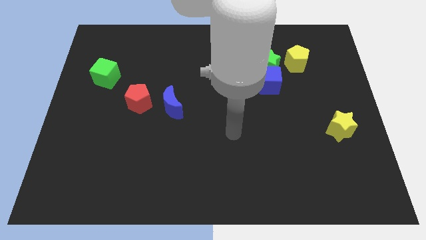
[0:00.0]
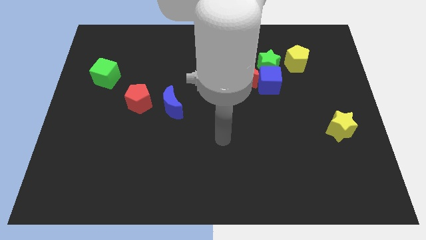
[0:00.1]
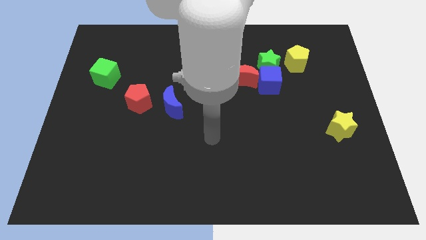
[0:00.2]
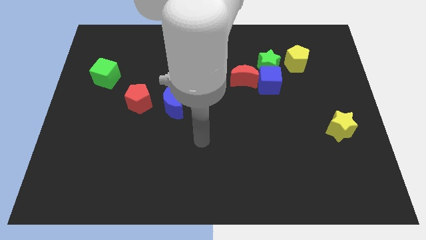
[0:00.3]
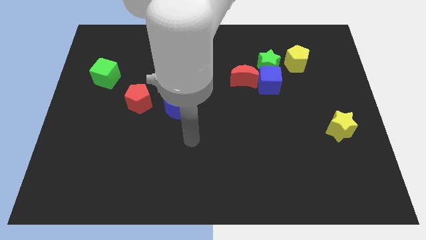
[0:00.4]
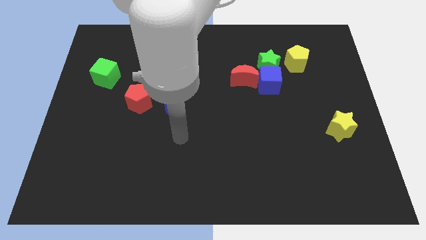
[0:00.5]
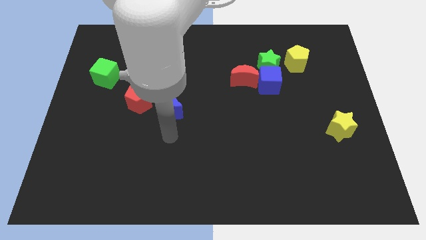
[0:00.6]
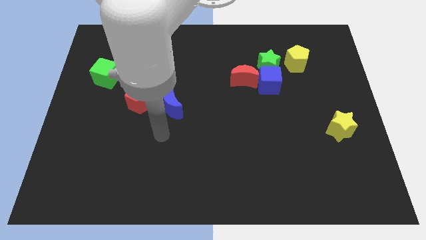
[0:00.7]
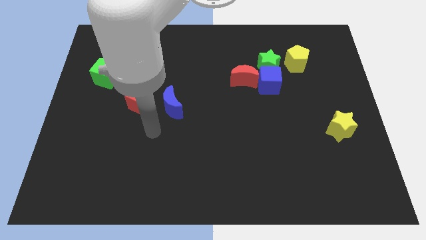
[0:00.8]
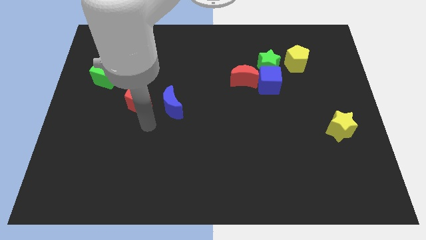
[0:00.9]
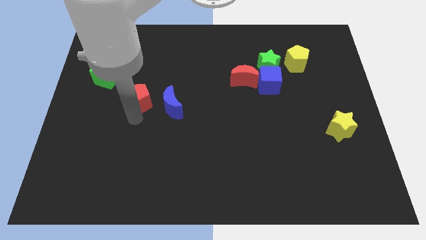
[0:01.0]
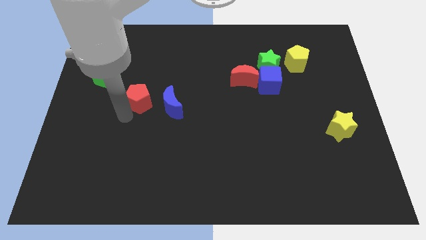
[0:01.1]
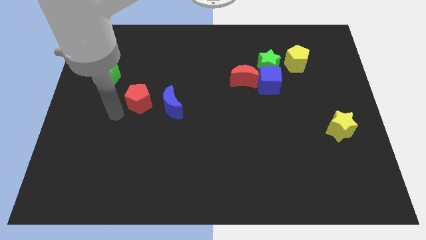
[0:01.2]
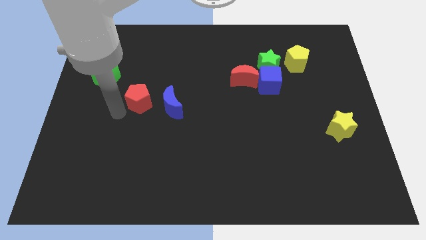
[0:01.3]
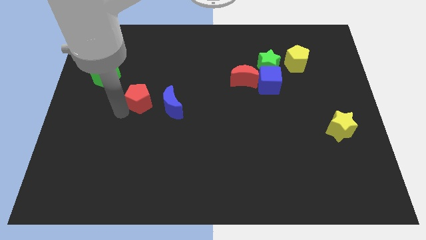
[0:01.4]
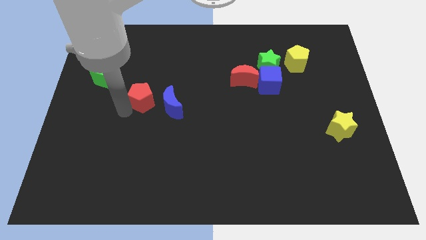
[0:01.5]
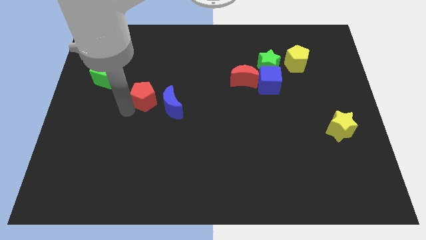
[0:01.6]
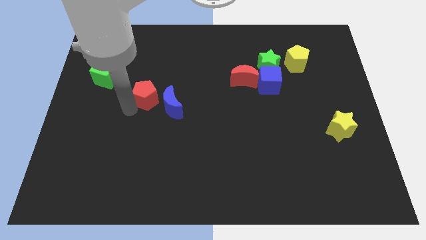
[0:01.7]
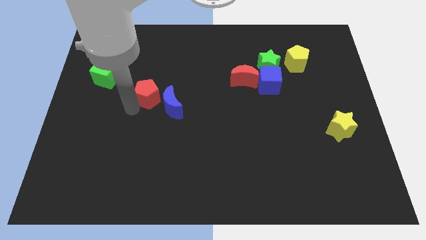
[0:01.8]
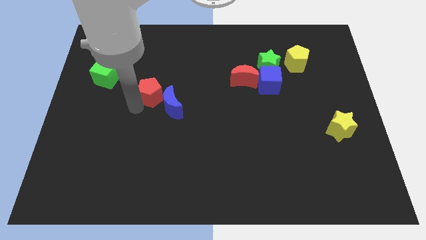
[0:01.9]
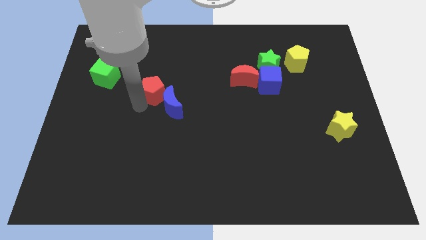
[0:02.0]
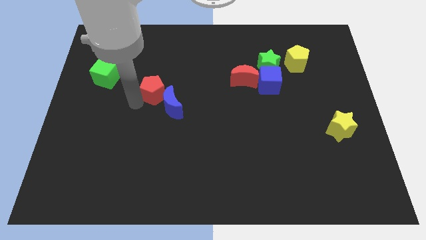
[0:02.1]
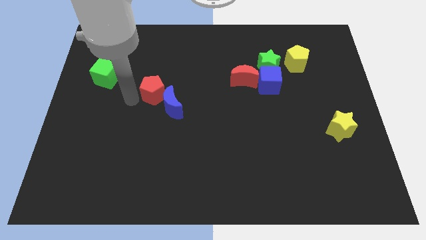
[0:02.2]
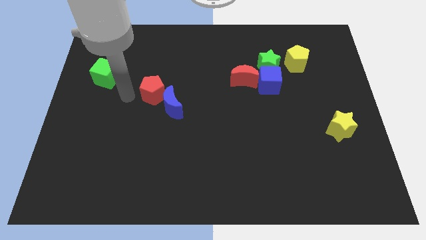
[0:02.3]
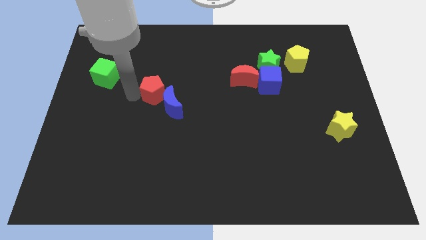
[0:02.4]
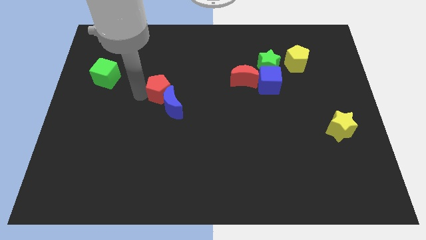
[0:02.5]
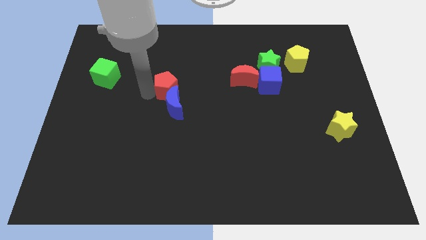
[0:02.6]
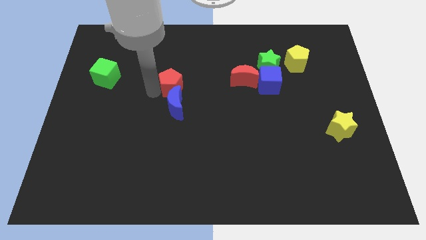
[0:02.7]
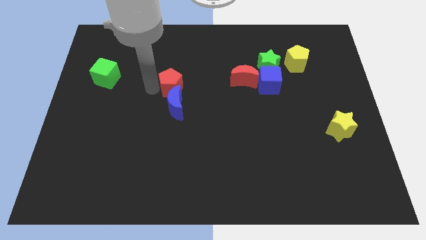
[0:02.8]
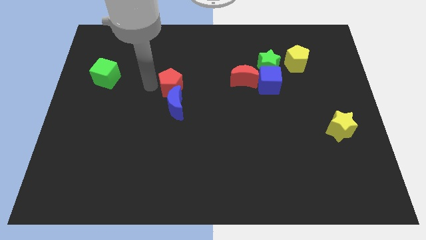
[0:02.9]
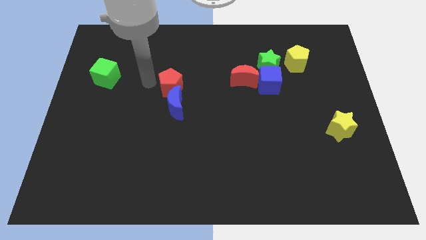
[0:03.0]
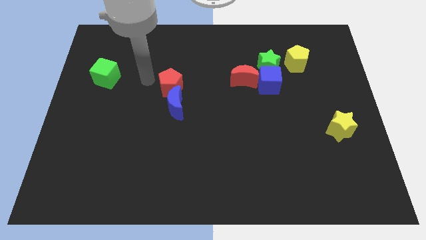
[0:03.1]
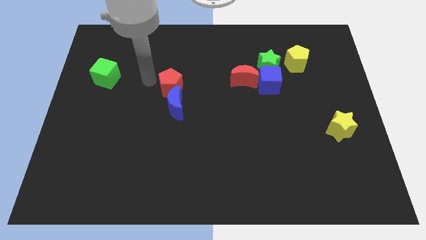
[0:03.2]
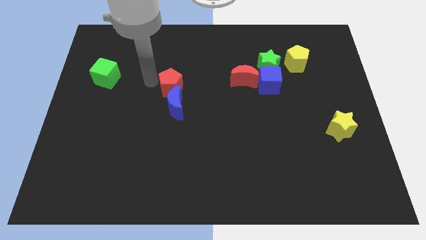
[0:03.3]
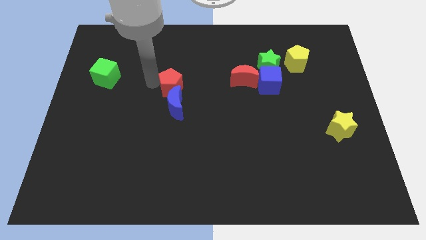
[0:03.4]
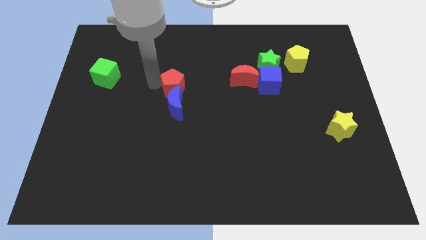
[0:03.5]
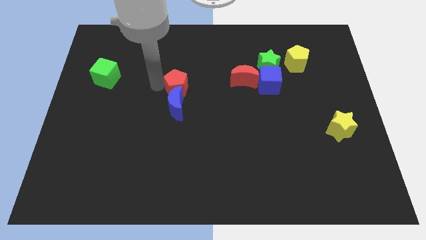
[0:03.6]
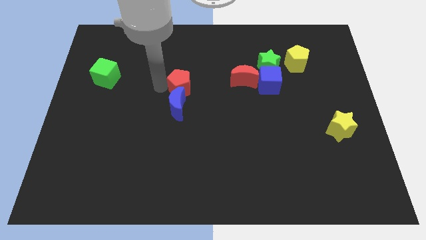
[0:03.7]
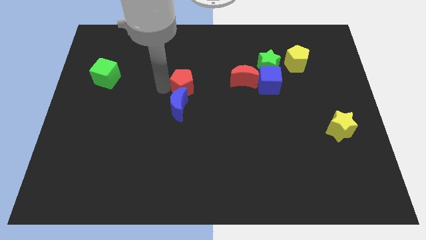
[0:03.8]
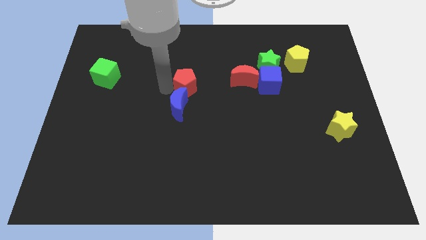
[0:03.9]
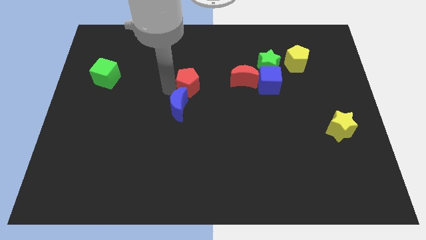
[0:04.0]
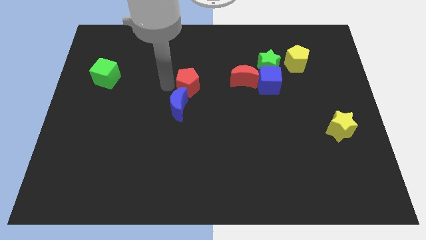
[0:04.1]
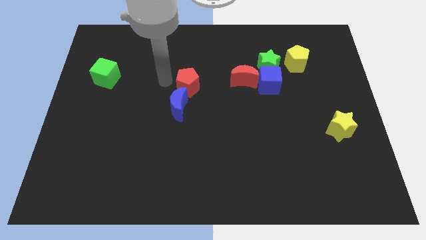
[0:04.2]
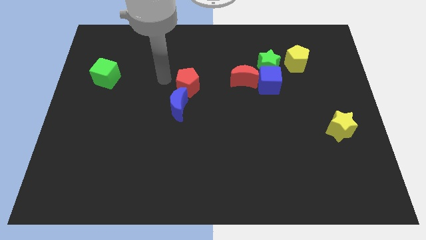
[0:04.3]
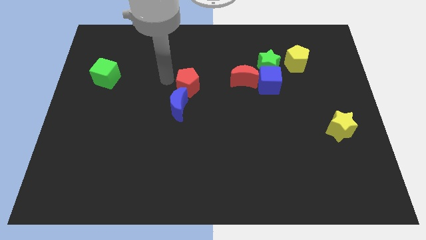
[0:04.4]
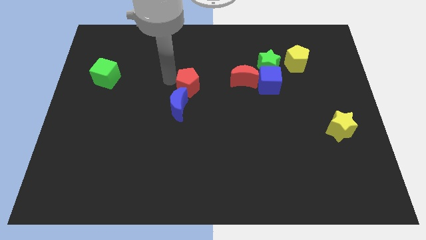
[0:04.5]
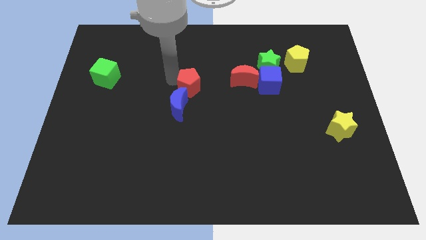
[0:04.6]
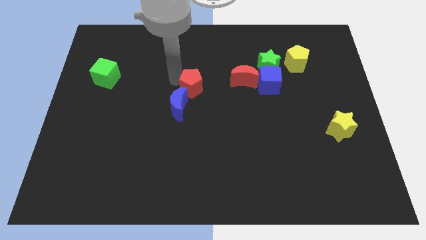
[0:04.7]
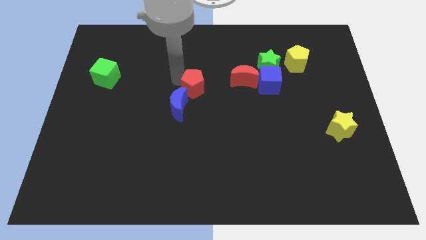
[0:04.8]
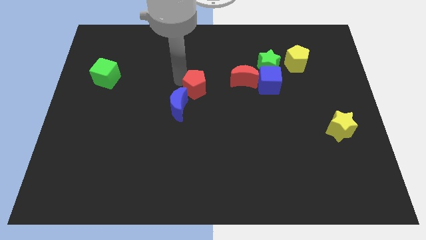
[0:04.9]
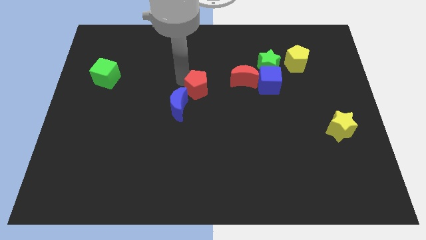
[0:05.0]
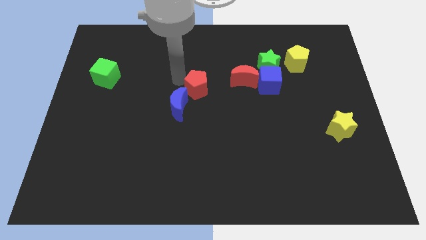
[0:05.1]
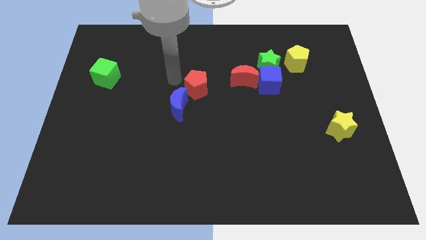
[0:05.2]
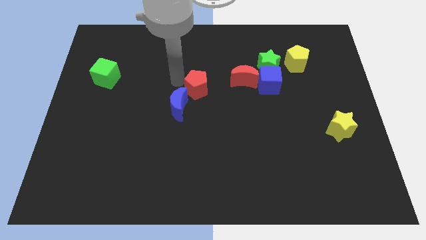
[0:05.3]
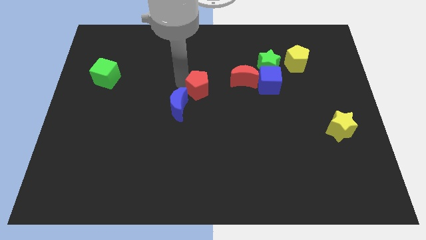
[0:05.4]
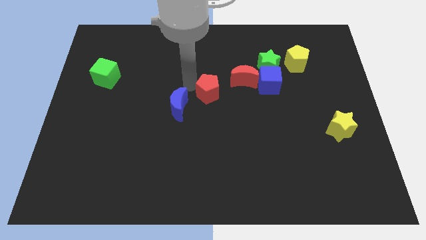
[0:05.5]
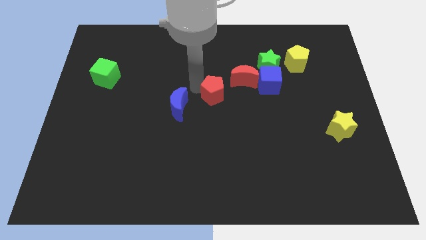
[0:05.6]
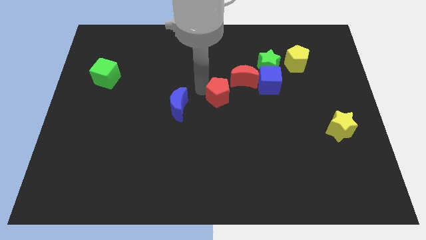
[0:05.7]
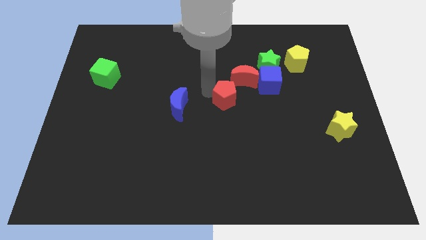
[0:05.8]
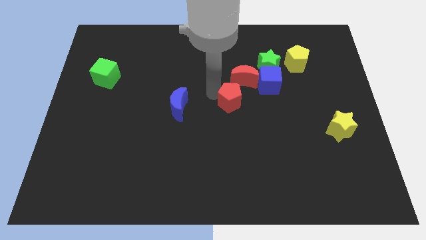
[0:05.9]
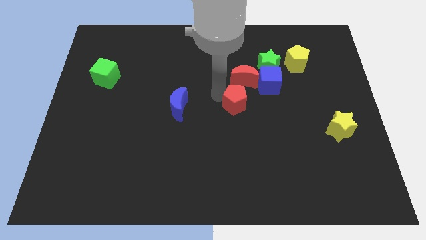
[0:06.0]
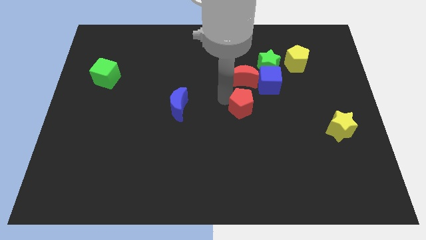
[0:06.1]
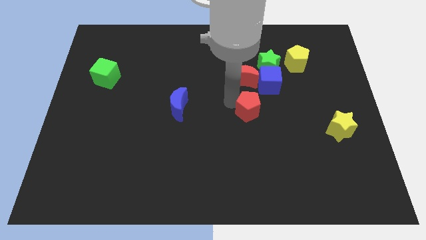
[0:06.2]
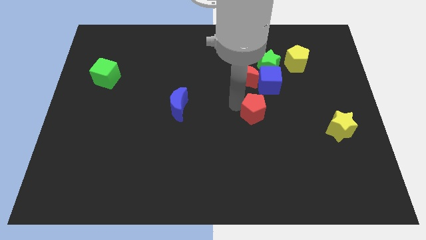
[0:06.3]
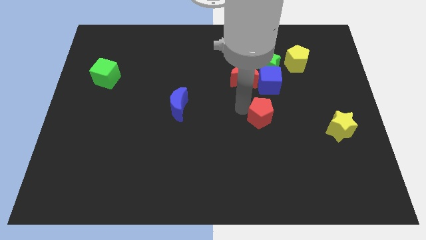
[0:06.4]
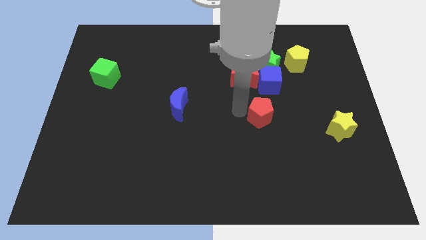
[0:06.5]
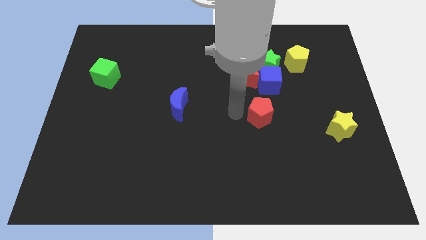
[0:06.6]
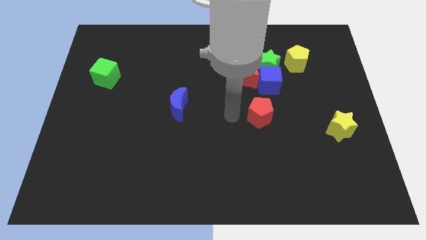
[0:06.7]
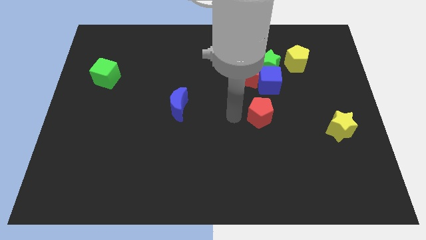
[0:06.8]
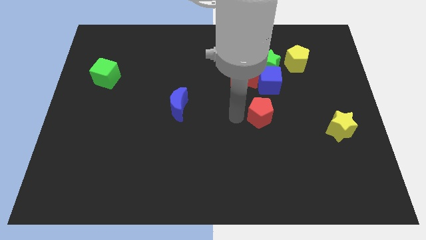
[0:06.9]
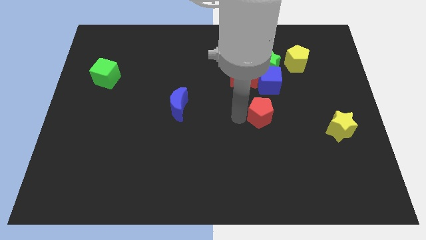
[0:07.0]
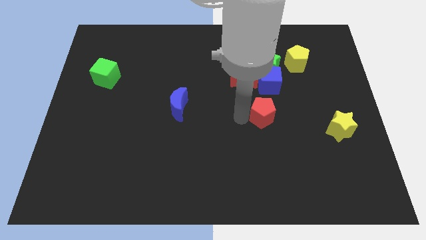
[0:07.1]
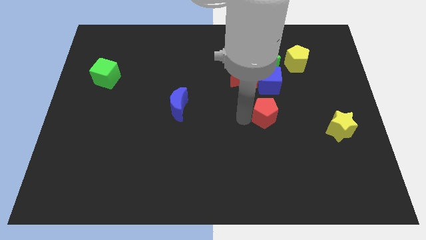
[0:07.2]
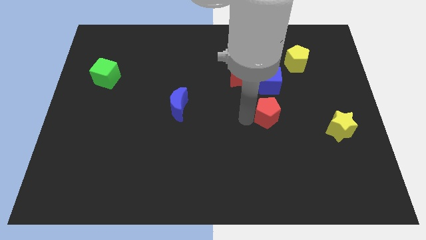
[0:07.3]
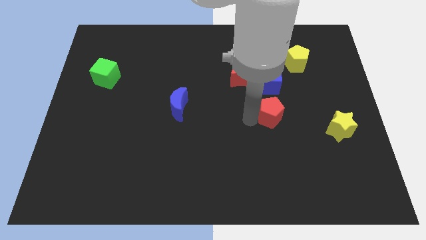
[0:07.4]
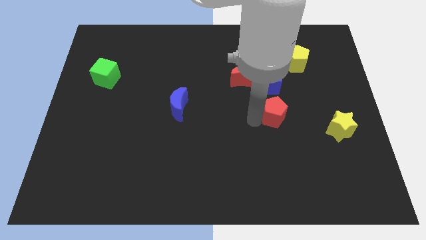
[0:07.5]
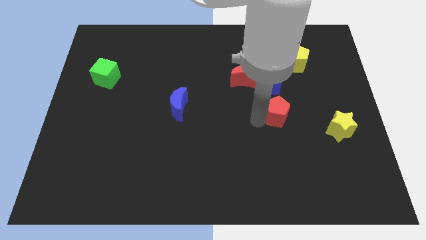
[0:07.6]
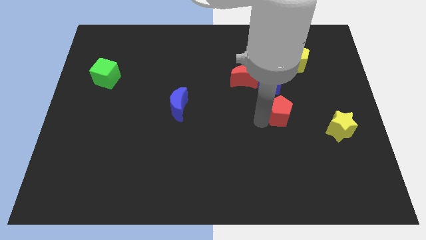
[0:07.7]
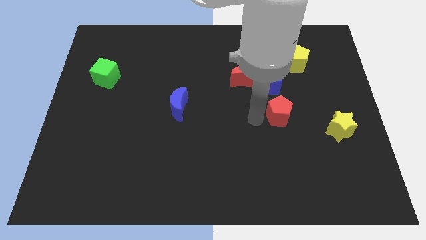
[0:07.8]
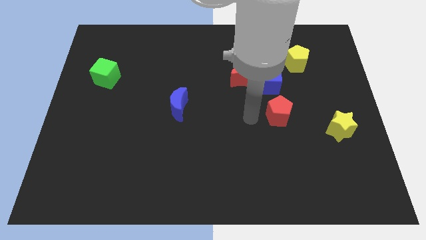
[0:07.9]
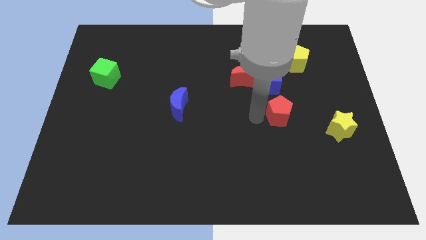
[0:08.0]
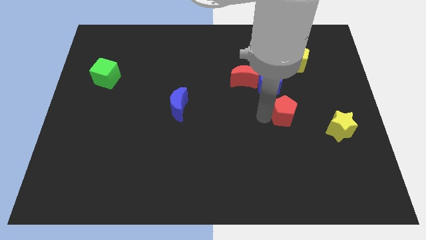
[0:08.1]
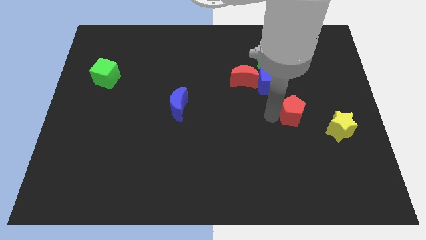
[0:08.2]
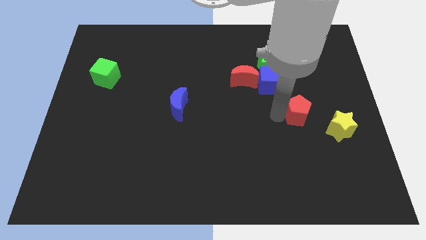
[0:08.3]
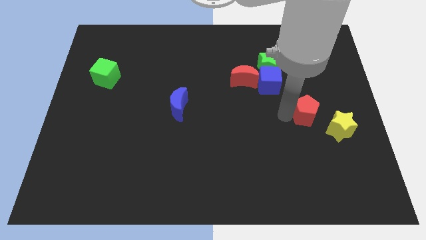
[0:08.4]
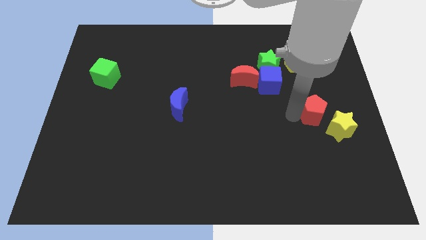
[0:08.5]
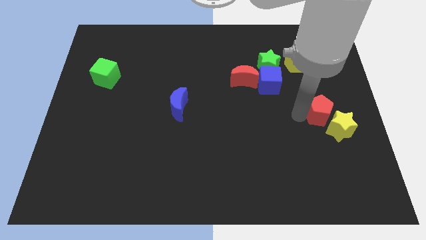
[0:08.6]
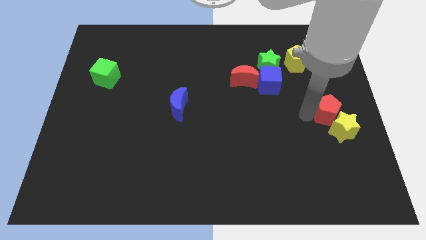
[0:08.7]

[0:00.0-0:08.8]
move the red pentagon to the right side
